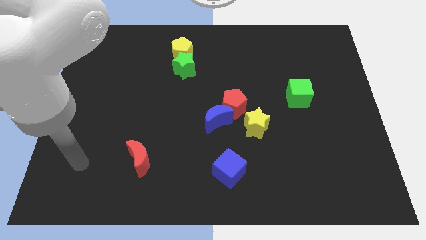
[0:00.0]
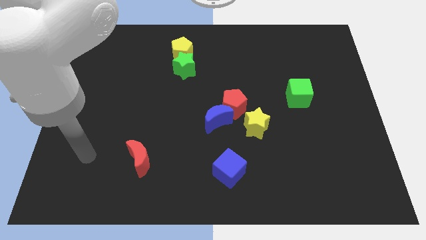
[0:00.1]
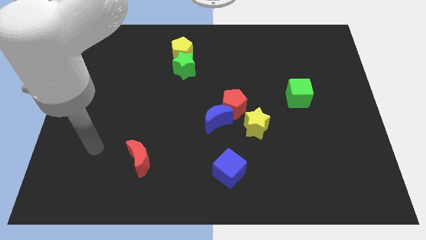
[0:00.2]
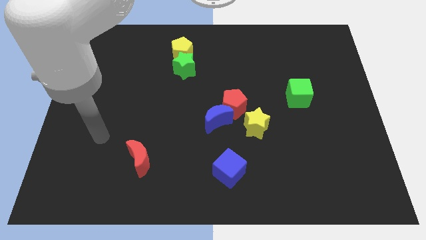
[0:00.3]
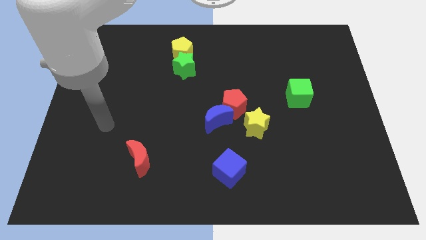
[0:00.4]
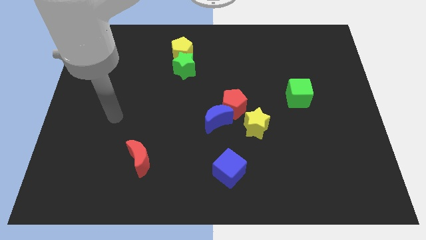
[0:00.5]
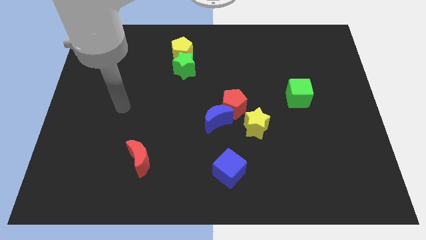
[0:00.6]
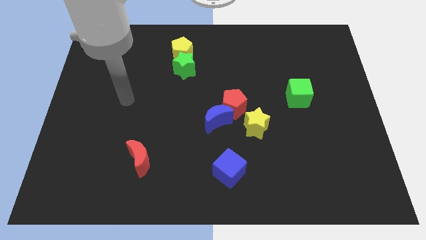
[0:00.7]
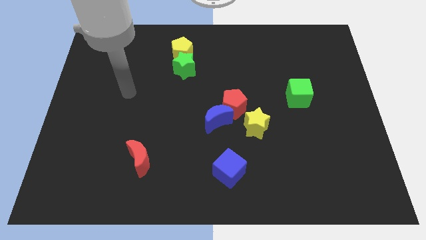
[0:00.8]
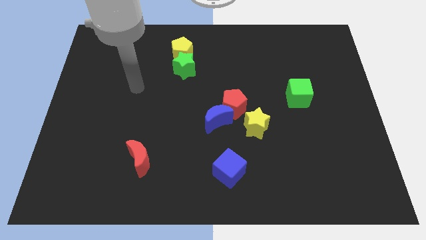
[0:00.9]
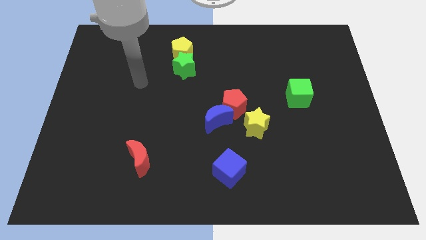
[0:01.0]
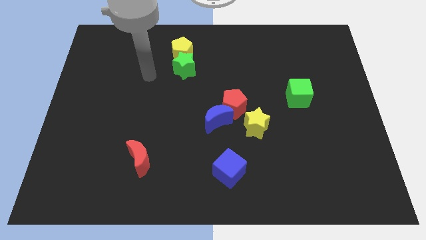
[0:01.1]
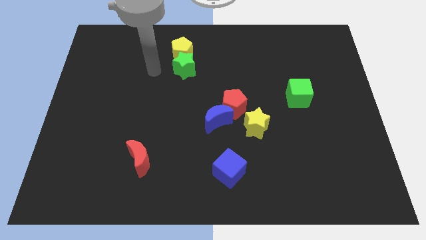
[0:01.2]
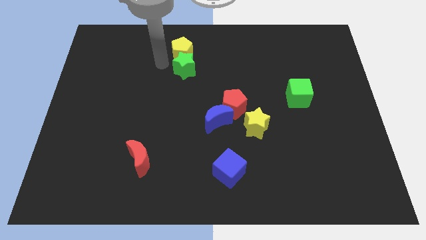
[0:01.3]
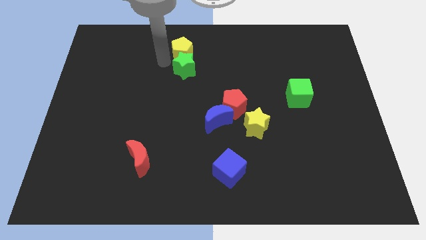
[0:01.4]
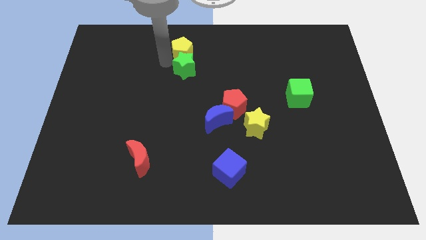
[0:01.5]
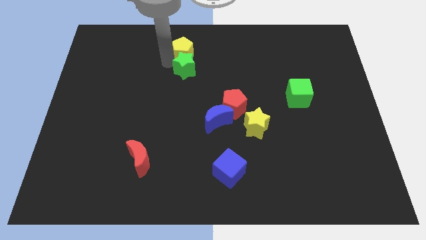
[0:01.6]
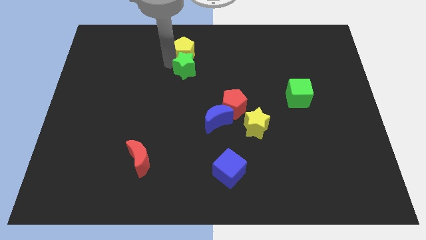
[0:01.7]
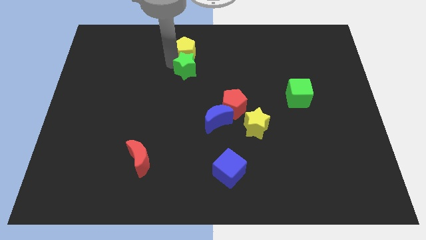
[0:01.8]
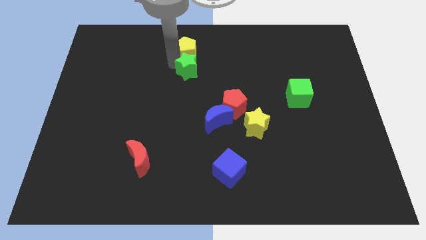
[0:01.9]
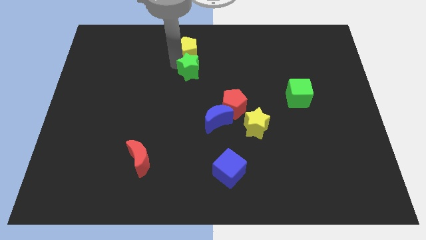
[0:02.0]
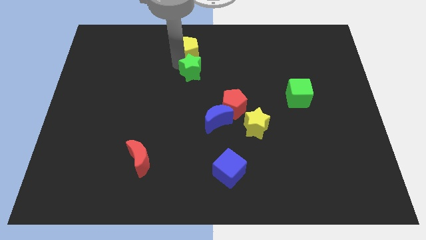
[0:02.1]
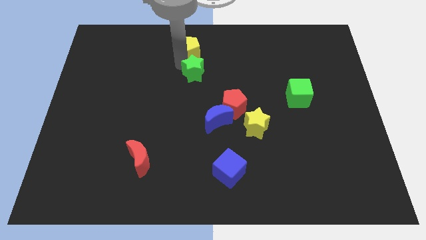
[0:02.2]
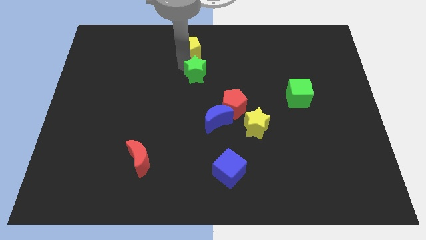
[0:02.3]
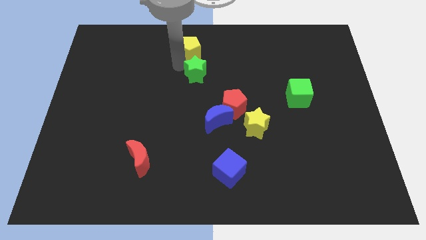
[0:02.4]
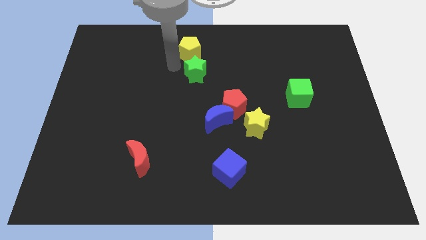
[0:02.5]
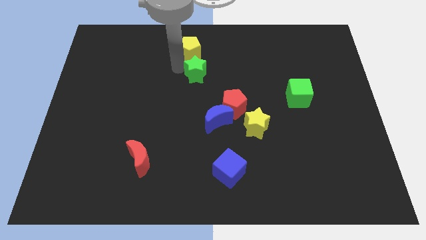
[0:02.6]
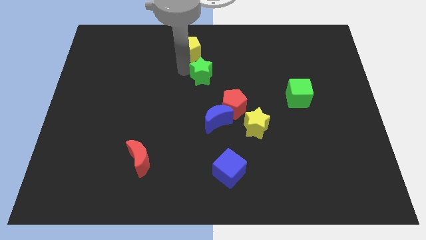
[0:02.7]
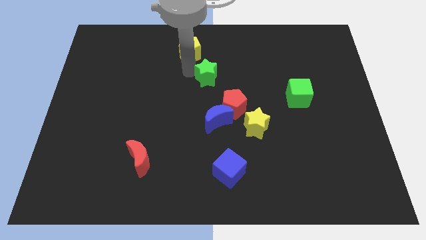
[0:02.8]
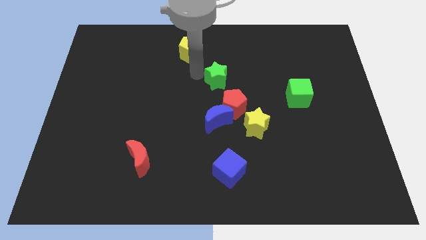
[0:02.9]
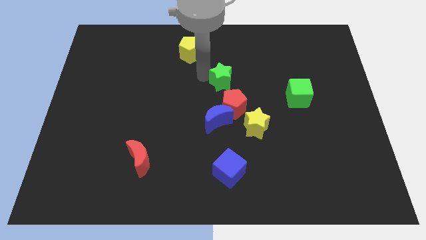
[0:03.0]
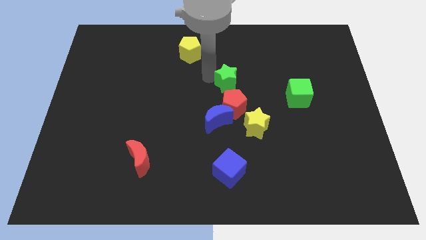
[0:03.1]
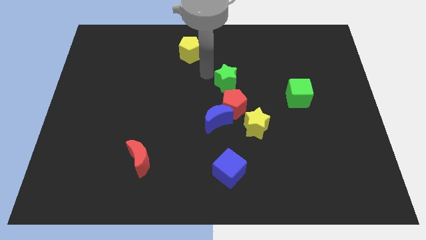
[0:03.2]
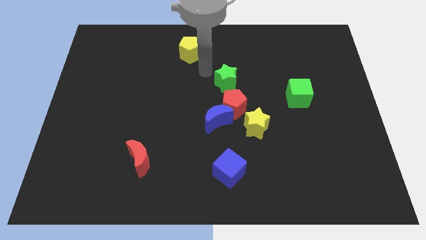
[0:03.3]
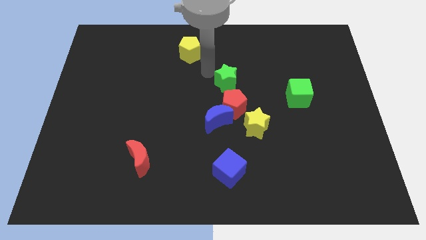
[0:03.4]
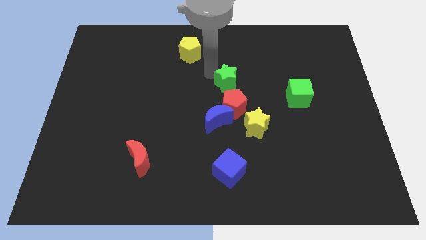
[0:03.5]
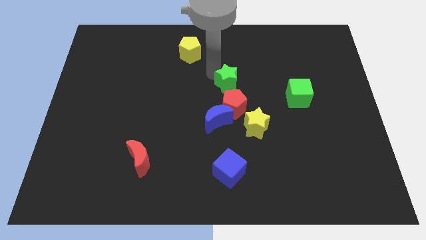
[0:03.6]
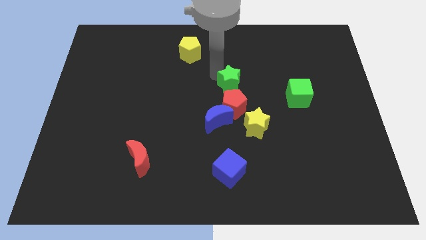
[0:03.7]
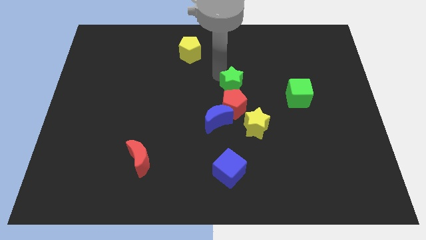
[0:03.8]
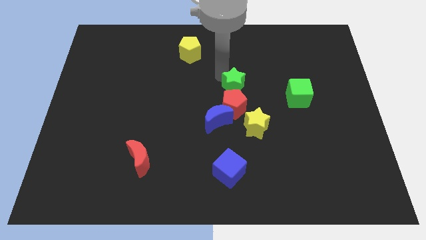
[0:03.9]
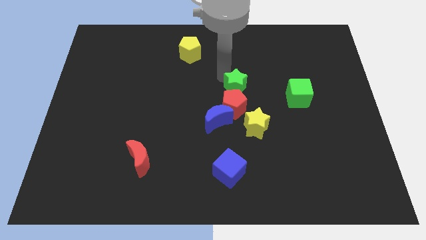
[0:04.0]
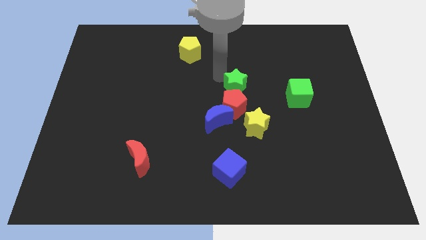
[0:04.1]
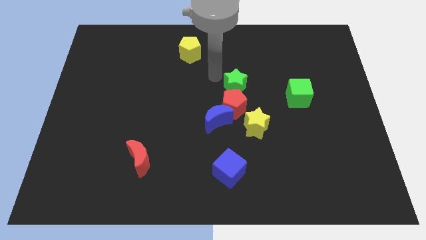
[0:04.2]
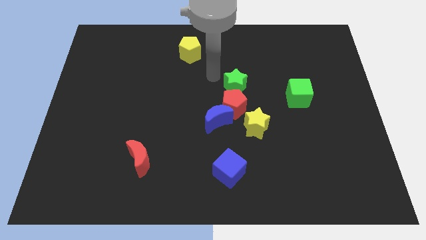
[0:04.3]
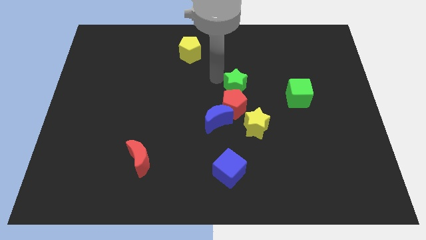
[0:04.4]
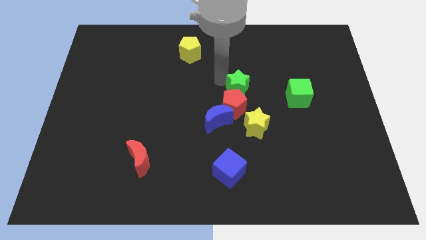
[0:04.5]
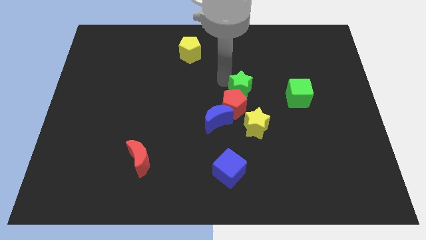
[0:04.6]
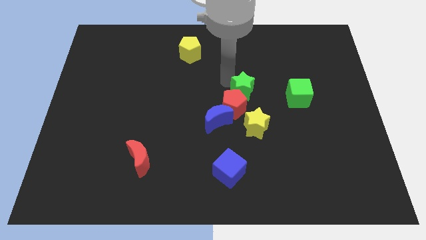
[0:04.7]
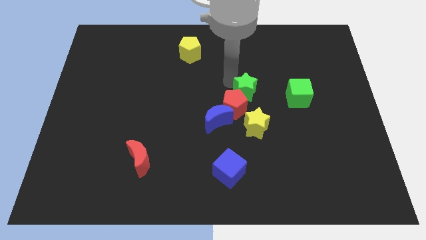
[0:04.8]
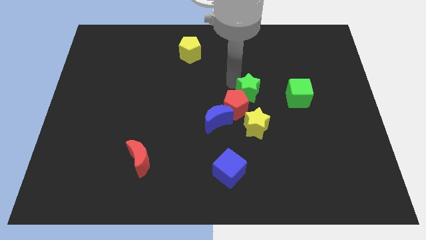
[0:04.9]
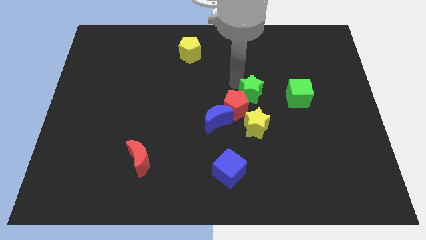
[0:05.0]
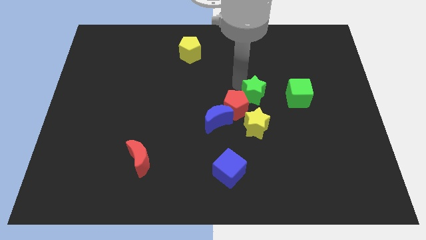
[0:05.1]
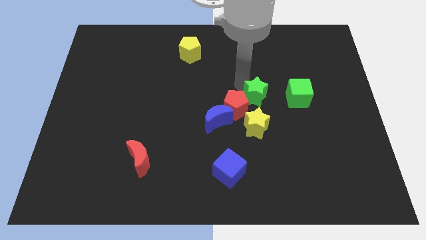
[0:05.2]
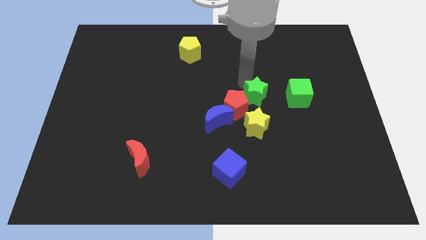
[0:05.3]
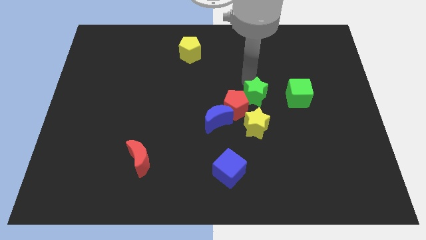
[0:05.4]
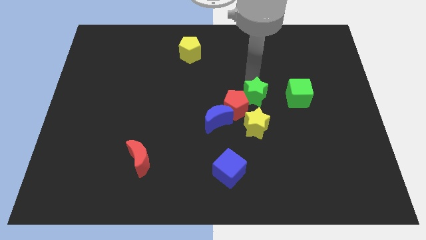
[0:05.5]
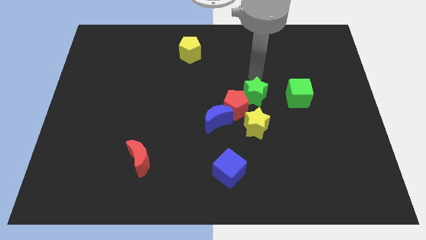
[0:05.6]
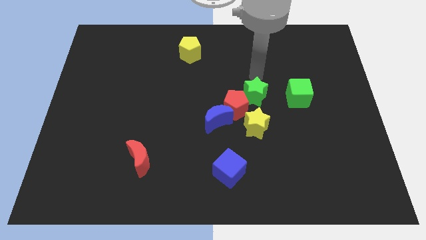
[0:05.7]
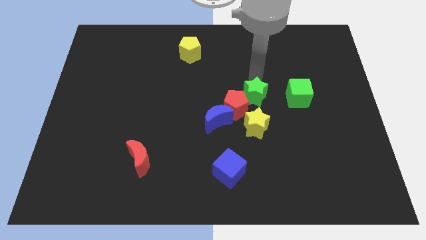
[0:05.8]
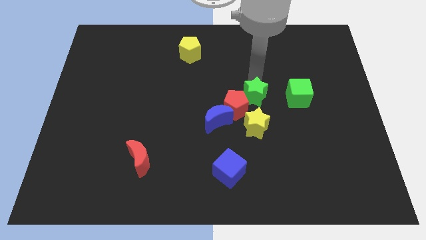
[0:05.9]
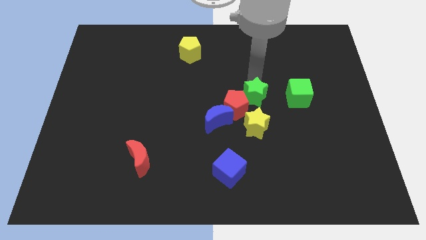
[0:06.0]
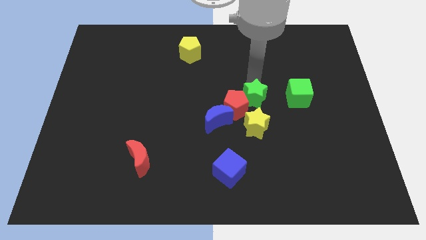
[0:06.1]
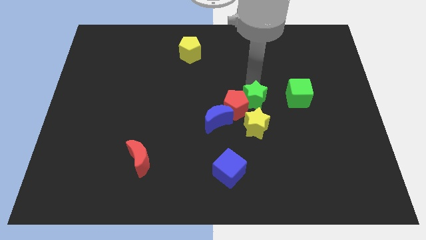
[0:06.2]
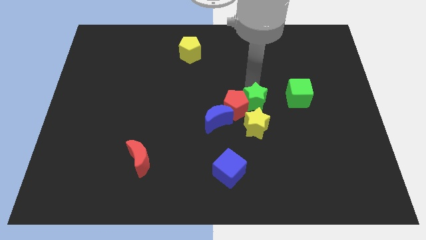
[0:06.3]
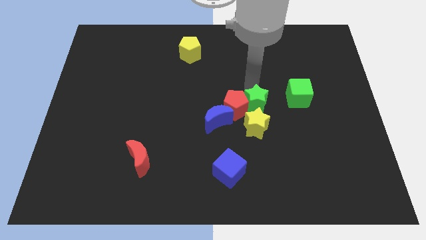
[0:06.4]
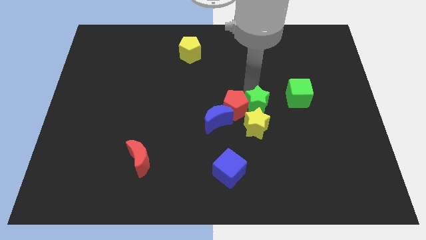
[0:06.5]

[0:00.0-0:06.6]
move the green star close to the yellow star
